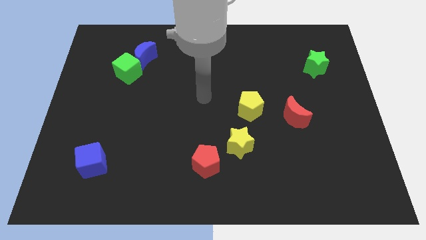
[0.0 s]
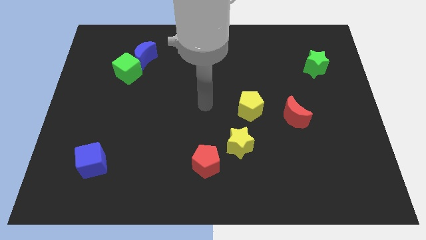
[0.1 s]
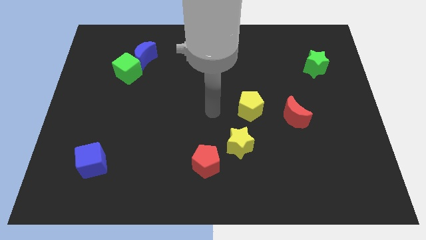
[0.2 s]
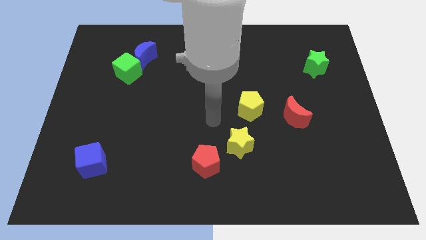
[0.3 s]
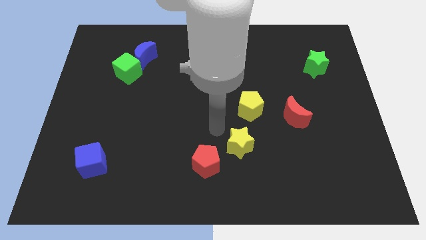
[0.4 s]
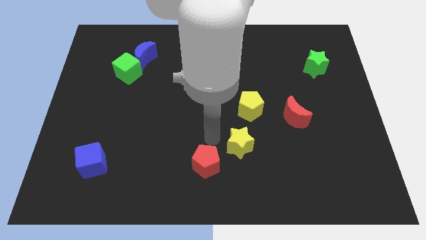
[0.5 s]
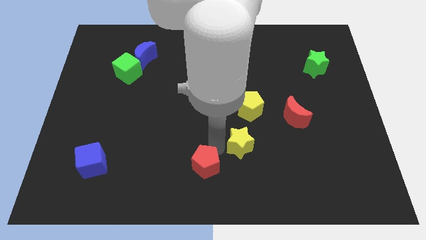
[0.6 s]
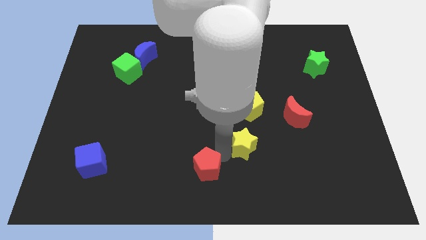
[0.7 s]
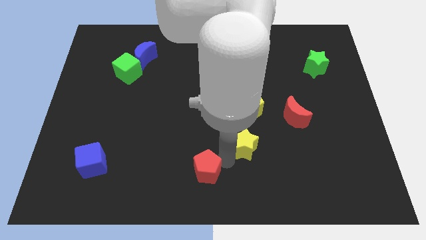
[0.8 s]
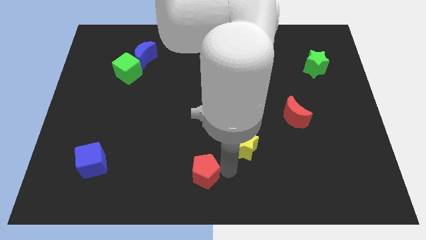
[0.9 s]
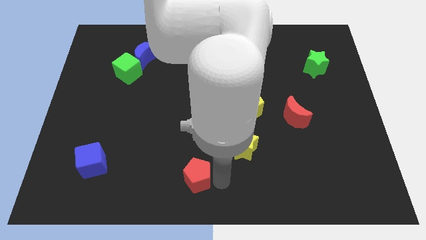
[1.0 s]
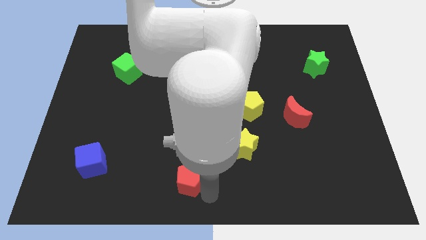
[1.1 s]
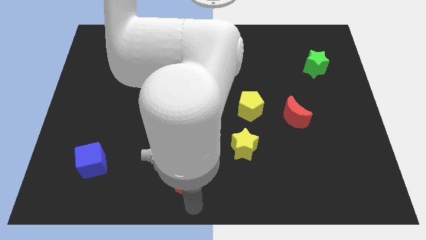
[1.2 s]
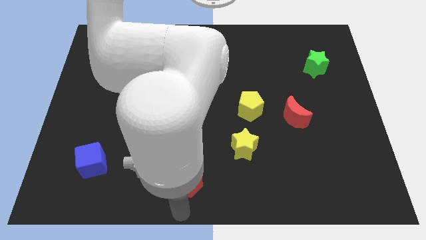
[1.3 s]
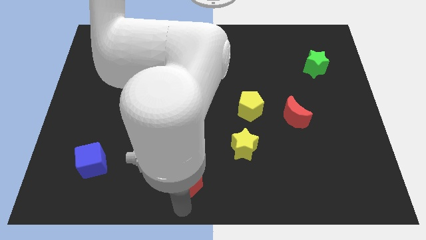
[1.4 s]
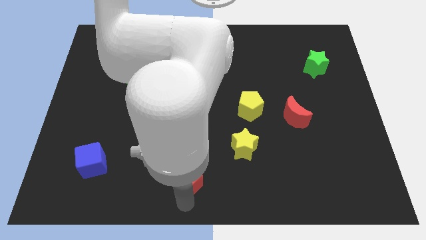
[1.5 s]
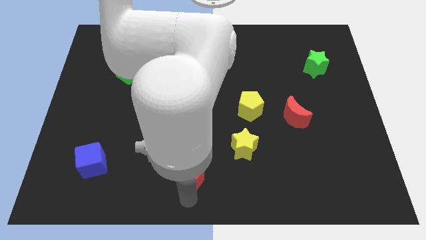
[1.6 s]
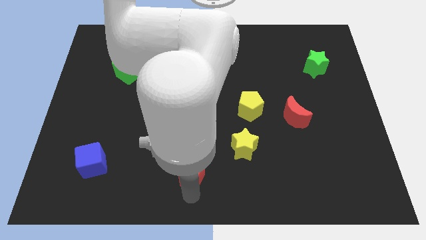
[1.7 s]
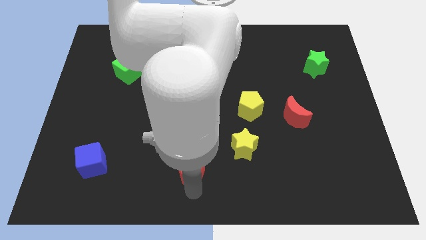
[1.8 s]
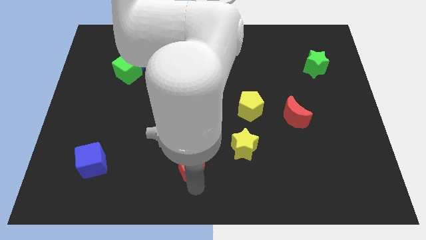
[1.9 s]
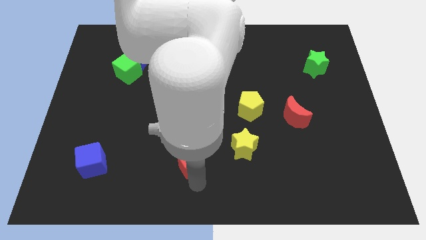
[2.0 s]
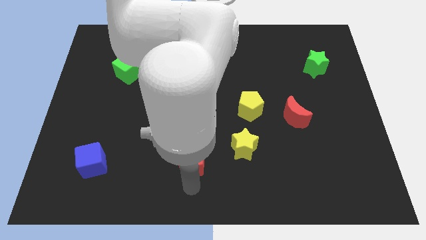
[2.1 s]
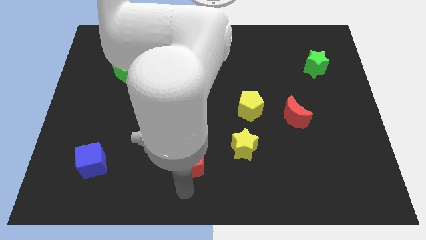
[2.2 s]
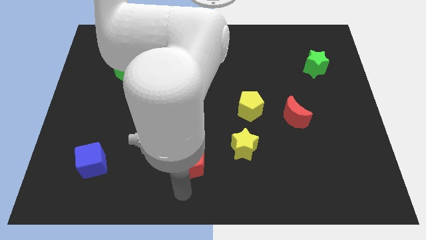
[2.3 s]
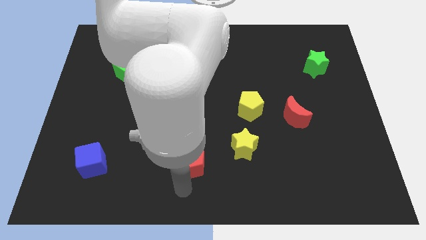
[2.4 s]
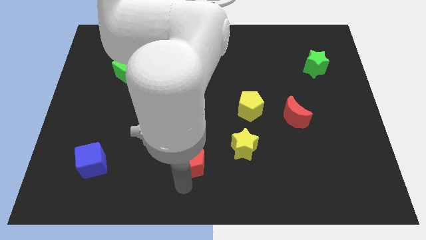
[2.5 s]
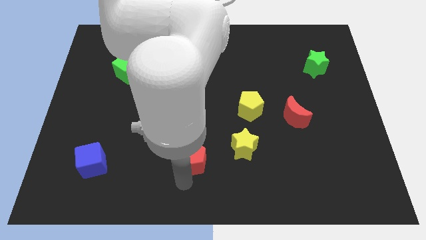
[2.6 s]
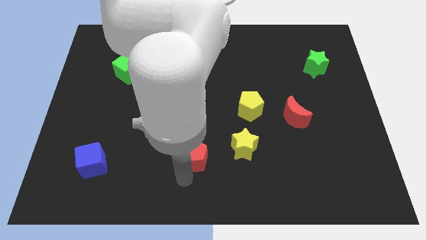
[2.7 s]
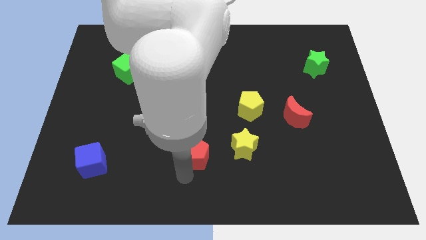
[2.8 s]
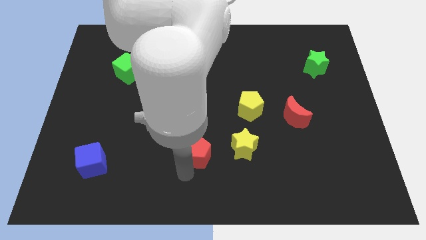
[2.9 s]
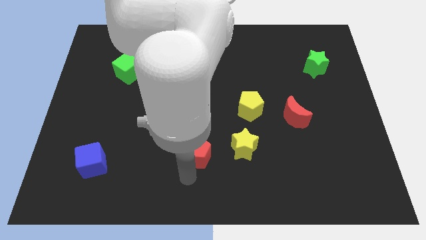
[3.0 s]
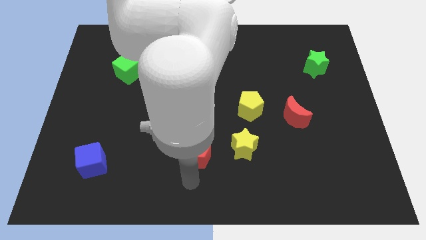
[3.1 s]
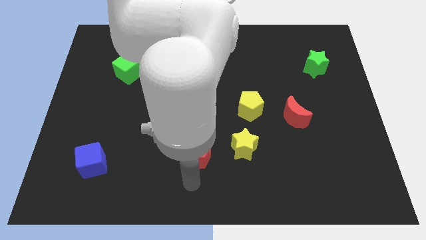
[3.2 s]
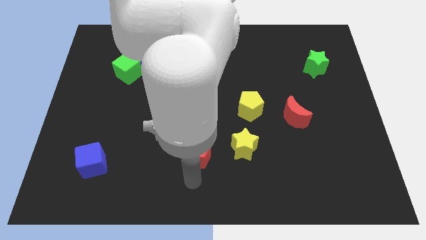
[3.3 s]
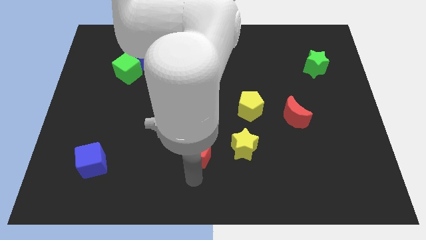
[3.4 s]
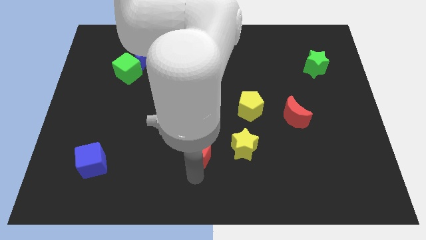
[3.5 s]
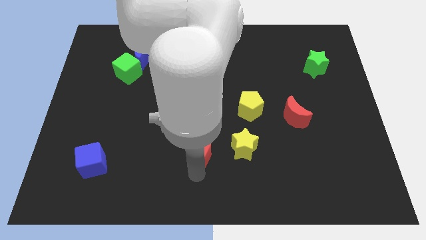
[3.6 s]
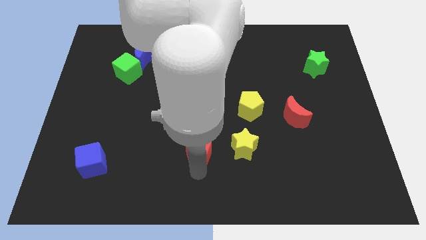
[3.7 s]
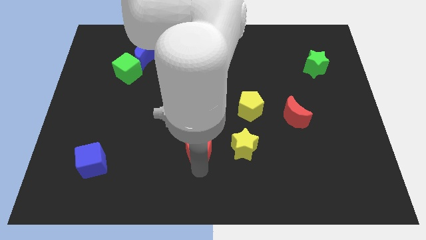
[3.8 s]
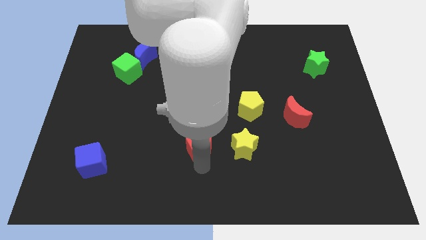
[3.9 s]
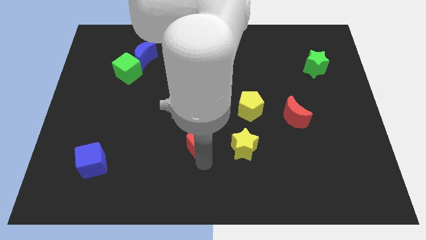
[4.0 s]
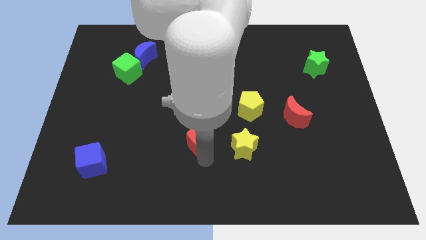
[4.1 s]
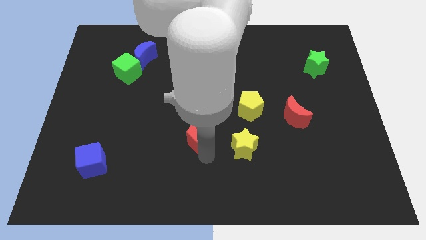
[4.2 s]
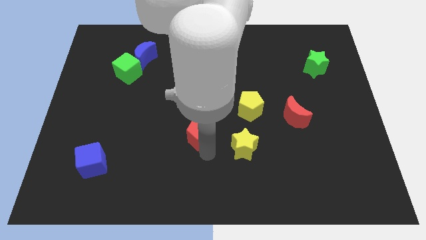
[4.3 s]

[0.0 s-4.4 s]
slide the red pentagon upwards somewhat

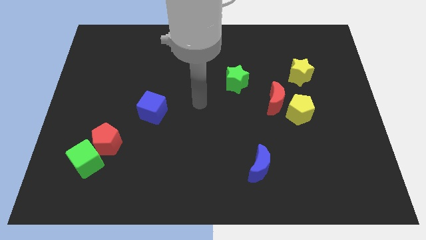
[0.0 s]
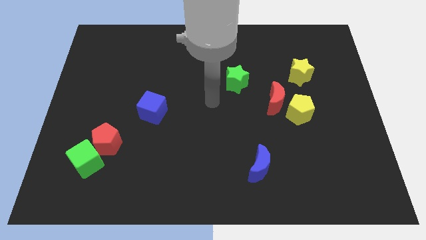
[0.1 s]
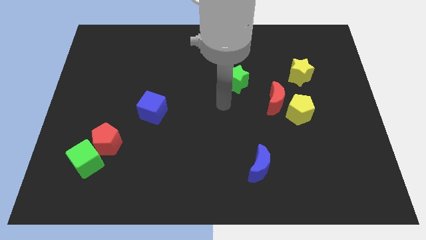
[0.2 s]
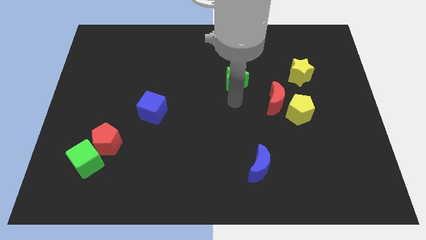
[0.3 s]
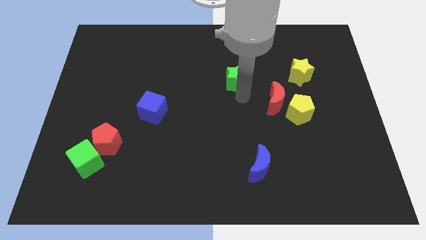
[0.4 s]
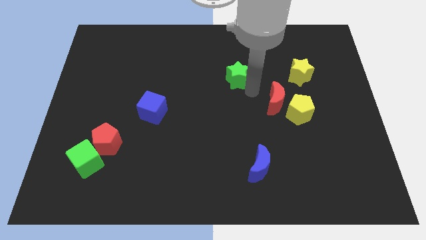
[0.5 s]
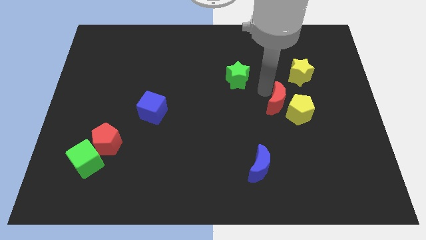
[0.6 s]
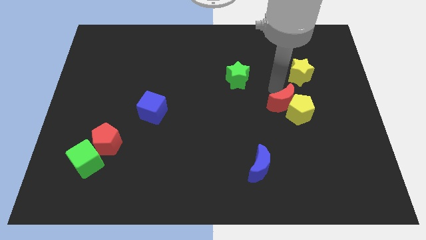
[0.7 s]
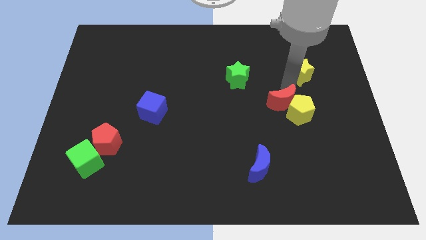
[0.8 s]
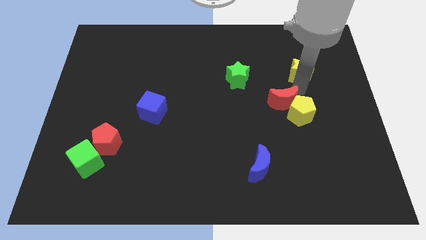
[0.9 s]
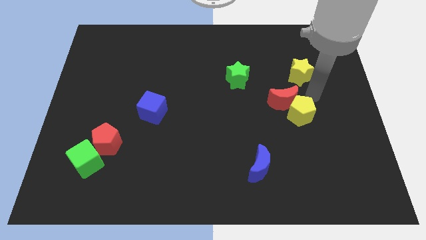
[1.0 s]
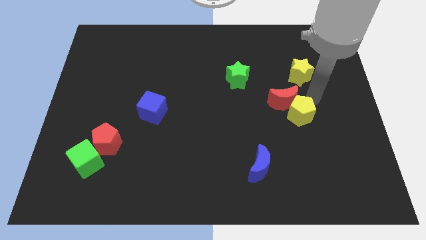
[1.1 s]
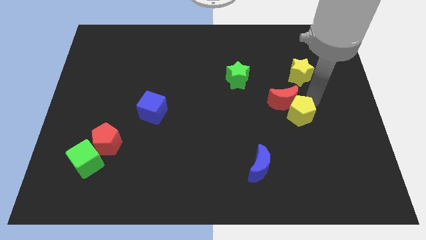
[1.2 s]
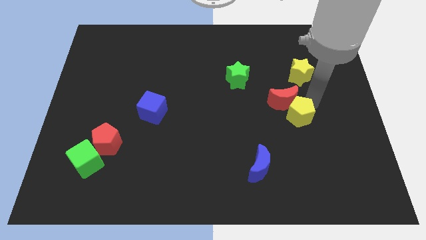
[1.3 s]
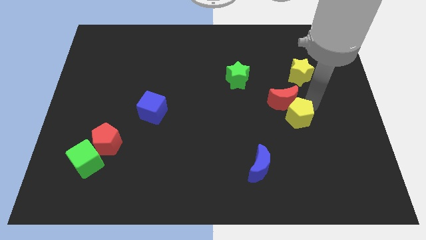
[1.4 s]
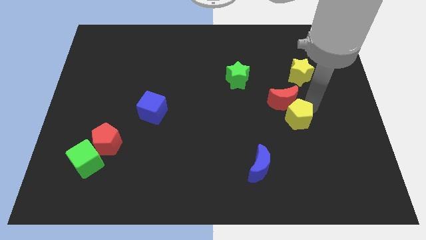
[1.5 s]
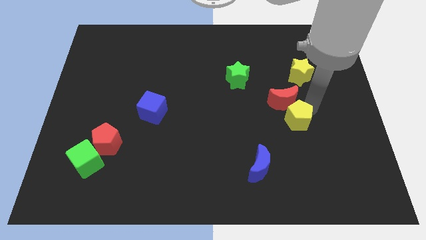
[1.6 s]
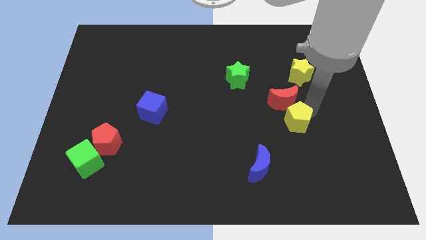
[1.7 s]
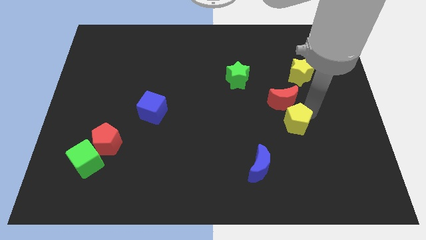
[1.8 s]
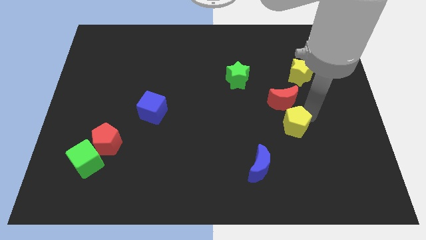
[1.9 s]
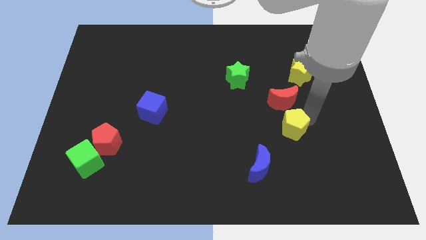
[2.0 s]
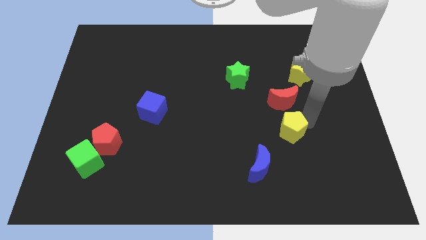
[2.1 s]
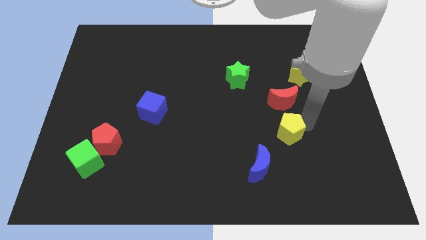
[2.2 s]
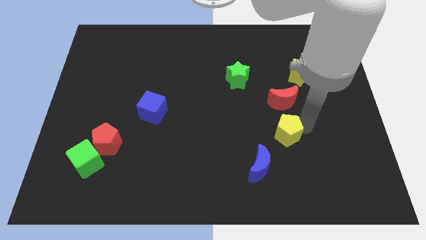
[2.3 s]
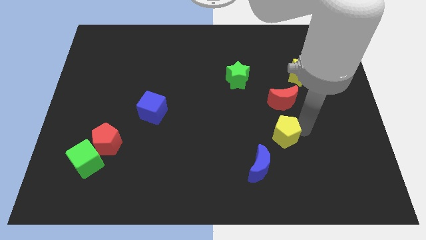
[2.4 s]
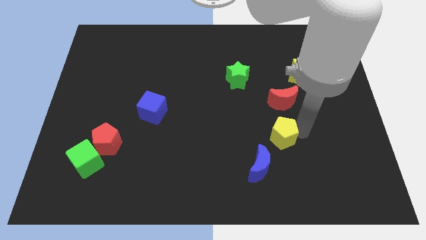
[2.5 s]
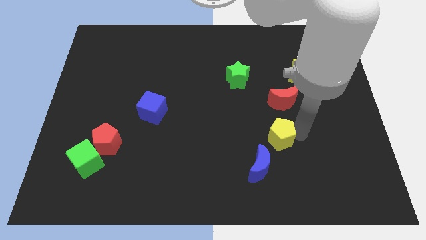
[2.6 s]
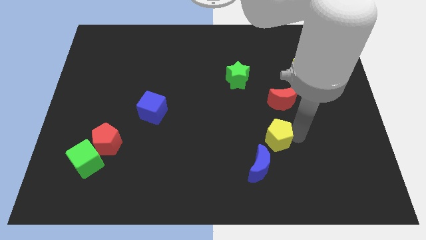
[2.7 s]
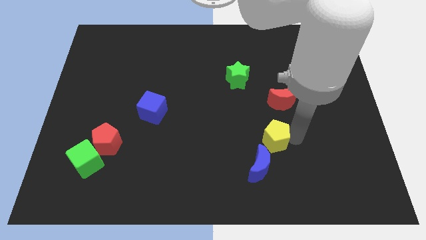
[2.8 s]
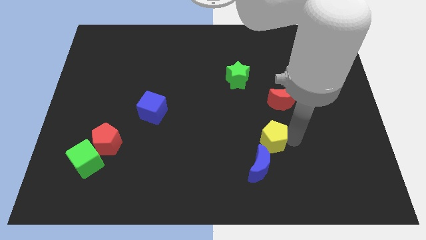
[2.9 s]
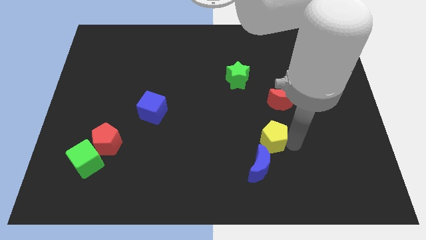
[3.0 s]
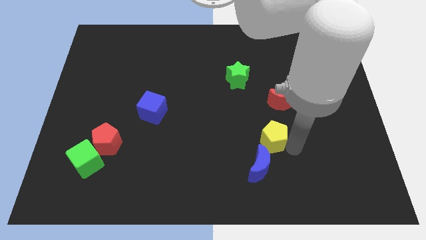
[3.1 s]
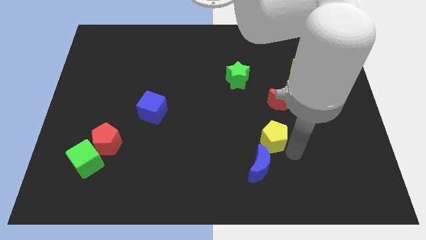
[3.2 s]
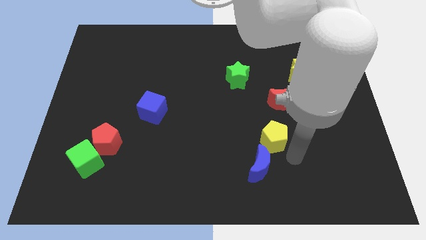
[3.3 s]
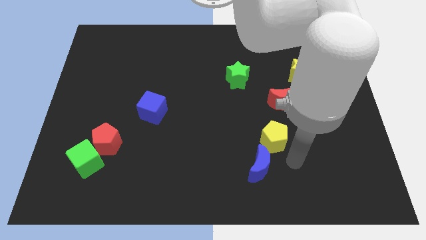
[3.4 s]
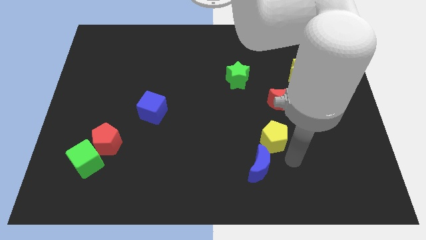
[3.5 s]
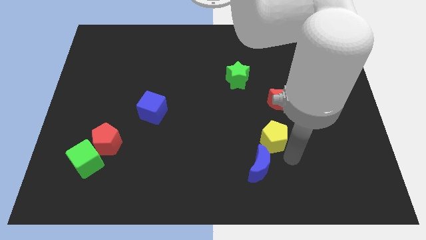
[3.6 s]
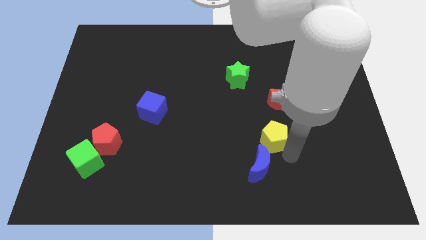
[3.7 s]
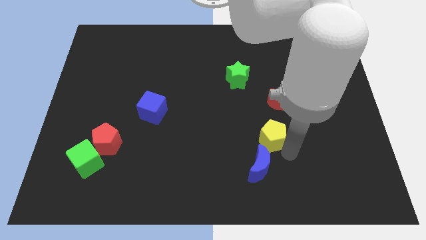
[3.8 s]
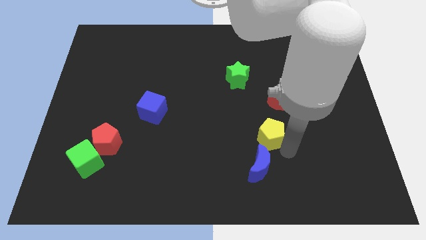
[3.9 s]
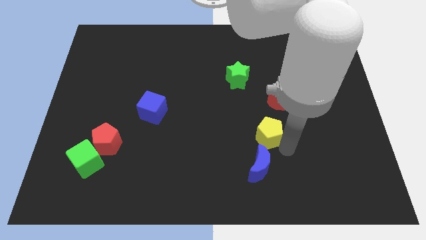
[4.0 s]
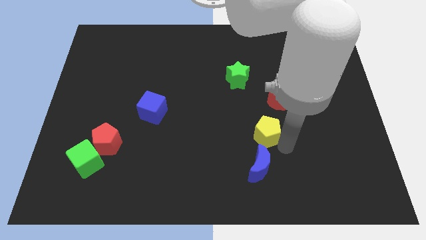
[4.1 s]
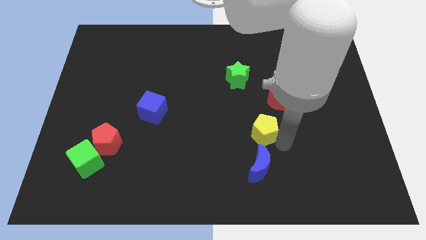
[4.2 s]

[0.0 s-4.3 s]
move the yellow pentagon a bit to the left
